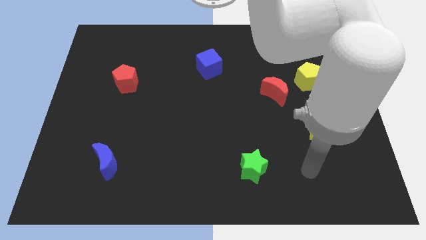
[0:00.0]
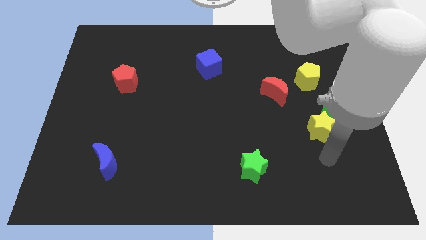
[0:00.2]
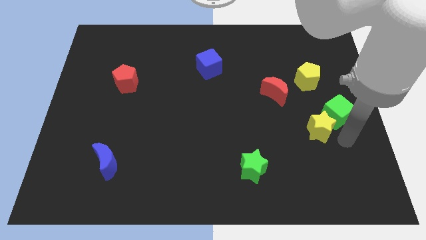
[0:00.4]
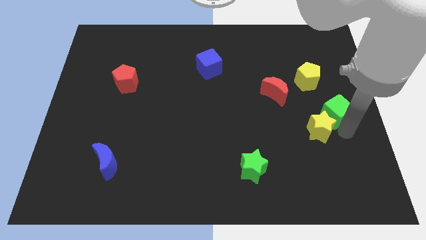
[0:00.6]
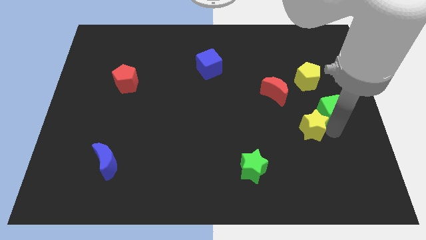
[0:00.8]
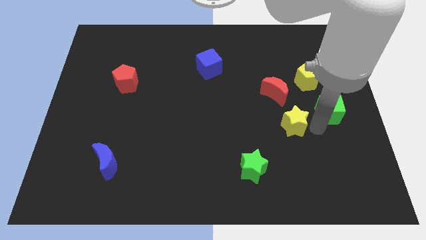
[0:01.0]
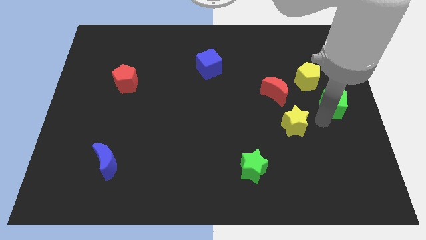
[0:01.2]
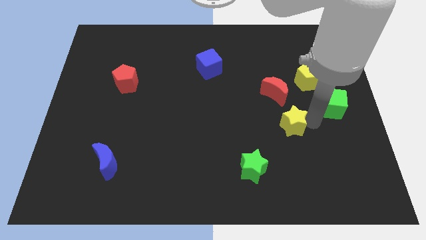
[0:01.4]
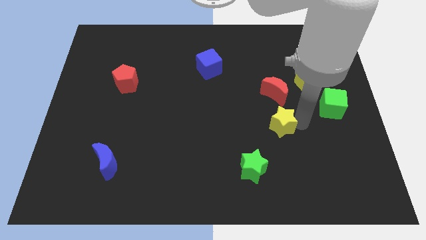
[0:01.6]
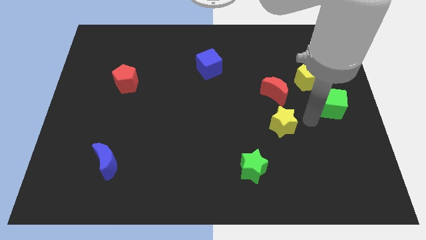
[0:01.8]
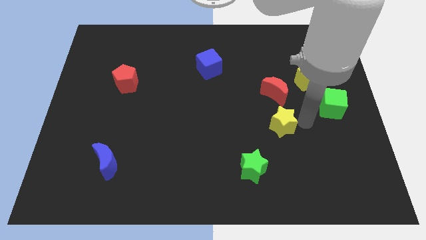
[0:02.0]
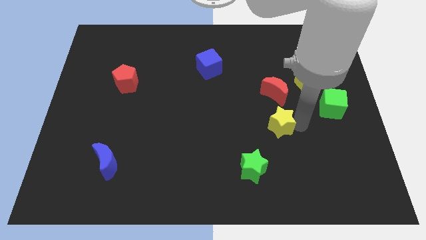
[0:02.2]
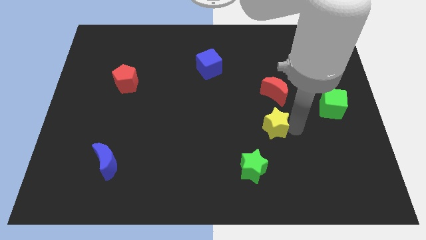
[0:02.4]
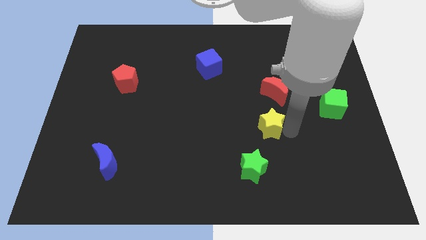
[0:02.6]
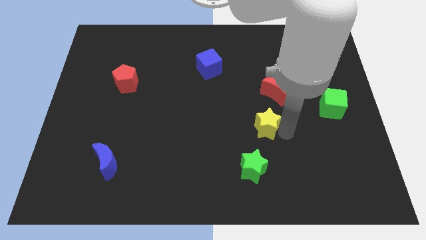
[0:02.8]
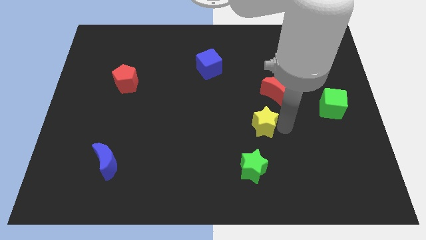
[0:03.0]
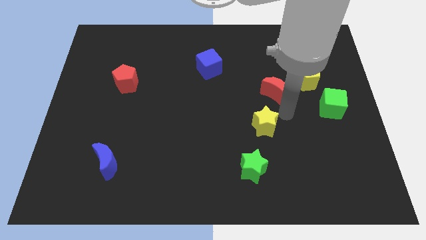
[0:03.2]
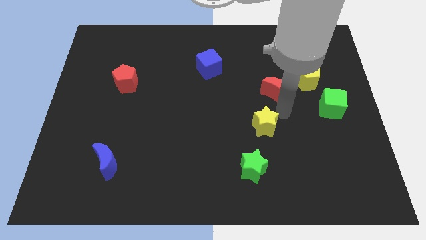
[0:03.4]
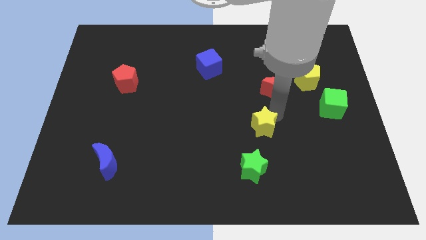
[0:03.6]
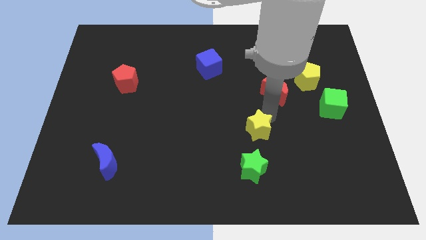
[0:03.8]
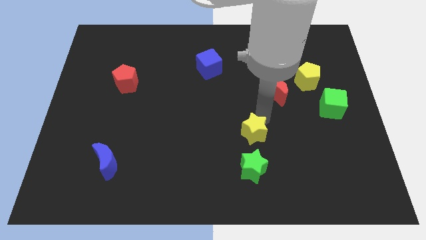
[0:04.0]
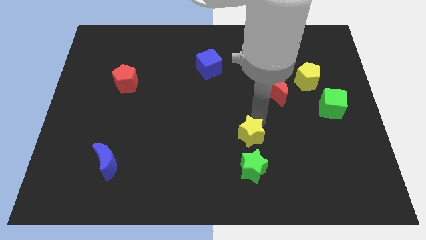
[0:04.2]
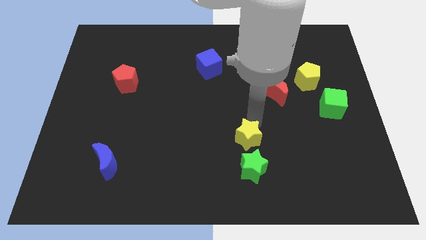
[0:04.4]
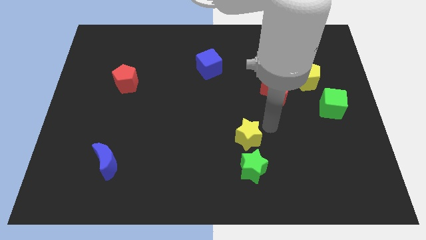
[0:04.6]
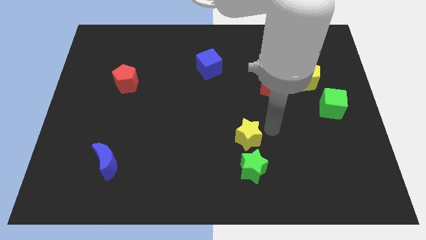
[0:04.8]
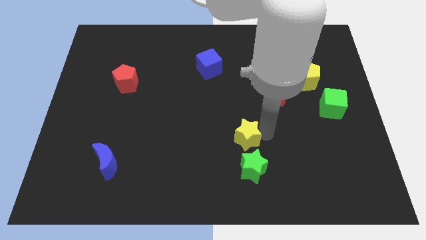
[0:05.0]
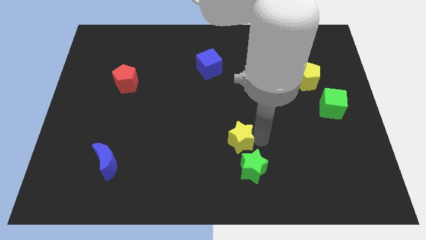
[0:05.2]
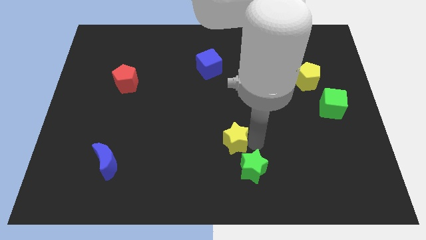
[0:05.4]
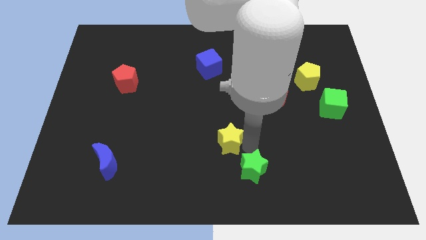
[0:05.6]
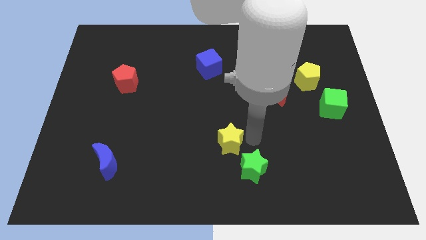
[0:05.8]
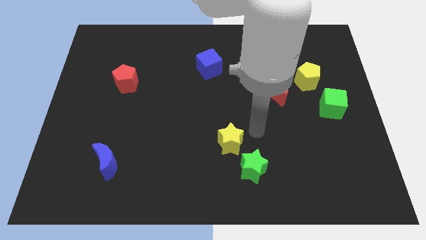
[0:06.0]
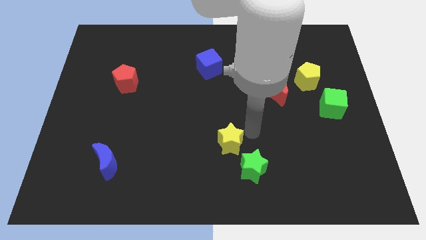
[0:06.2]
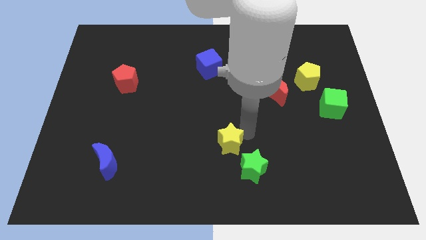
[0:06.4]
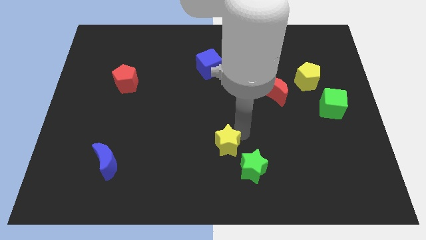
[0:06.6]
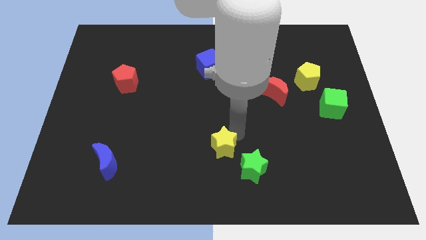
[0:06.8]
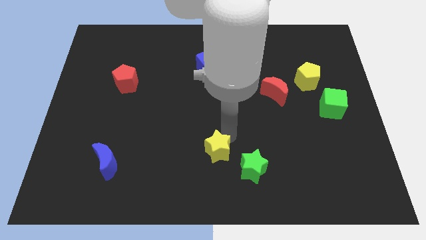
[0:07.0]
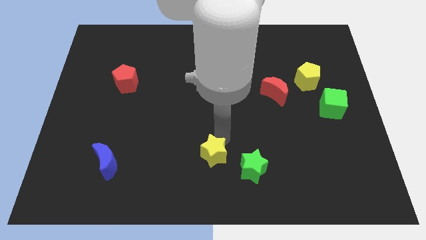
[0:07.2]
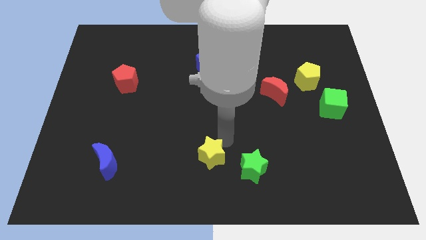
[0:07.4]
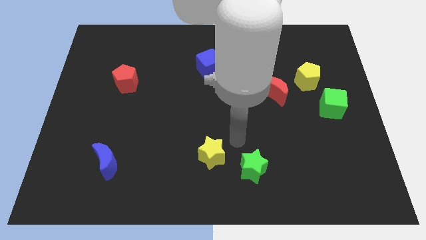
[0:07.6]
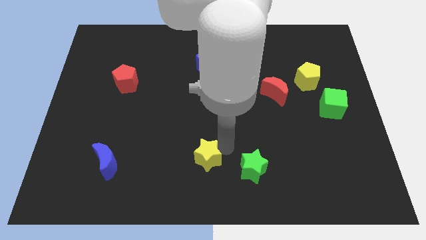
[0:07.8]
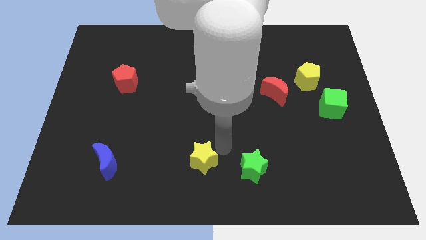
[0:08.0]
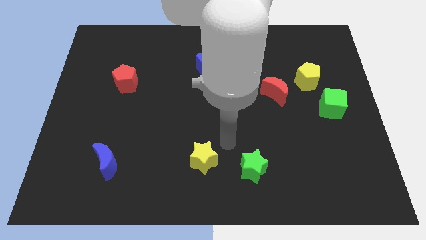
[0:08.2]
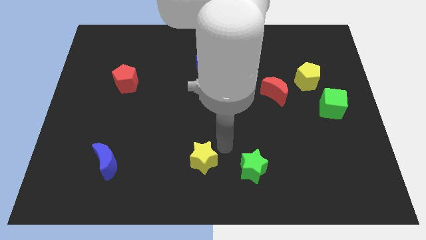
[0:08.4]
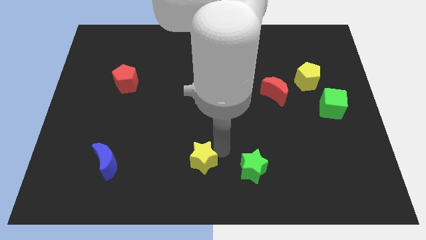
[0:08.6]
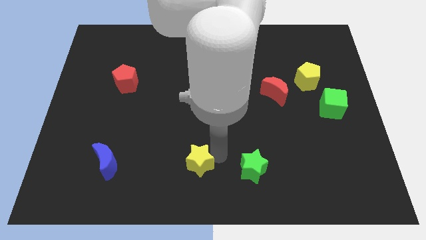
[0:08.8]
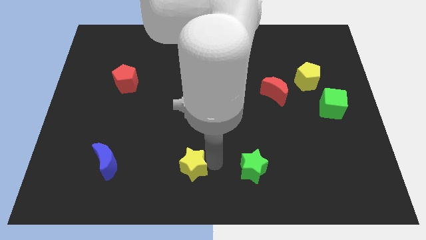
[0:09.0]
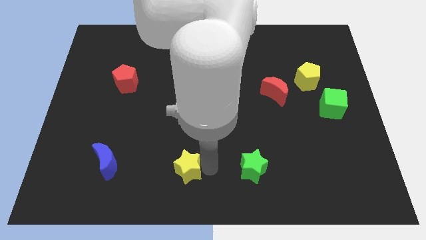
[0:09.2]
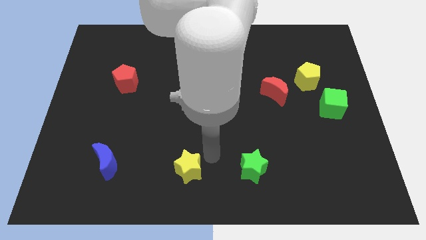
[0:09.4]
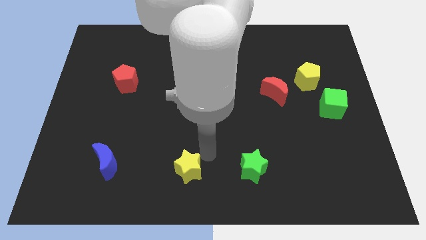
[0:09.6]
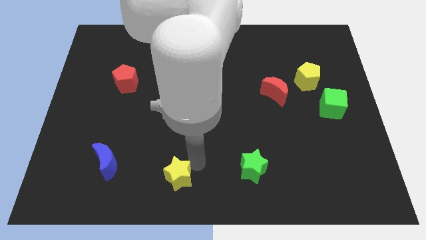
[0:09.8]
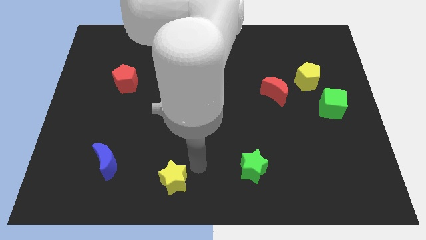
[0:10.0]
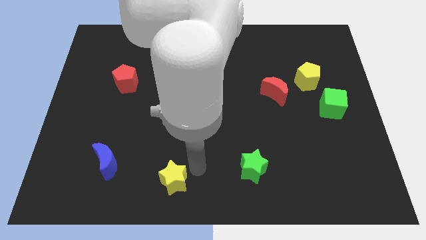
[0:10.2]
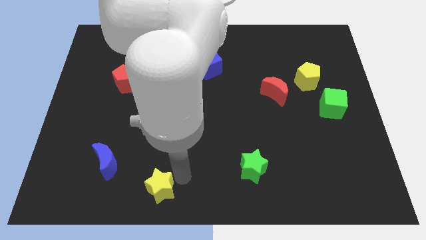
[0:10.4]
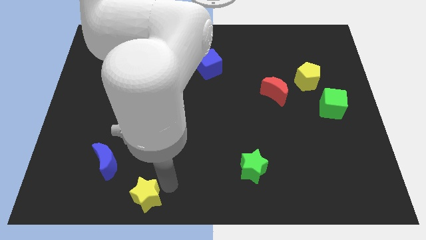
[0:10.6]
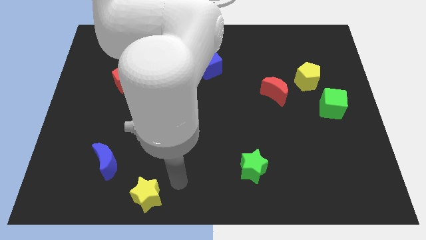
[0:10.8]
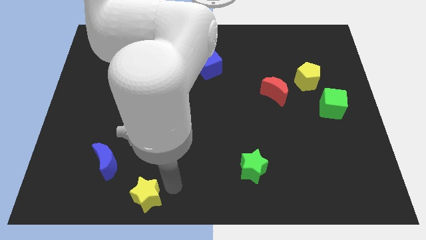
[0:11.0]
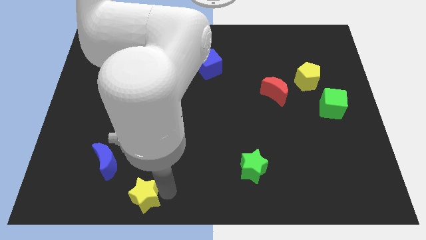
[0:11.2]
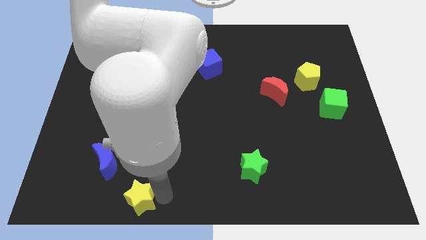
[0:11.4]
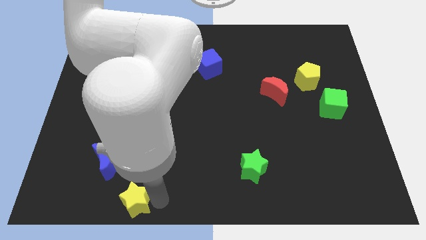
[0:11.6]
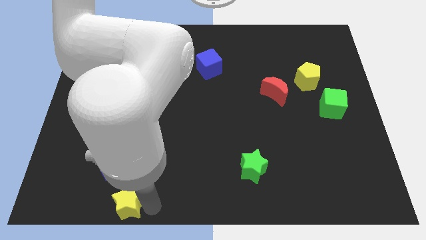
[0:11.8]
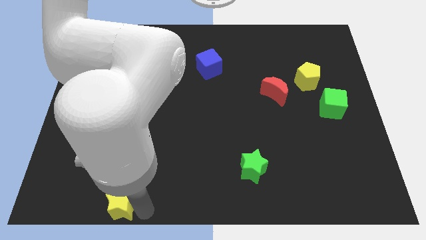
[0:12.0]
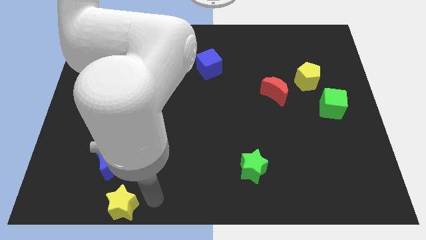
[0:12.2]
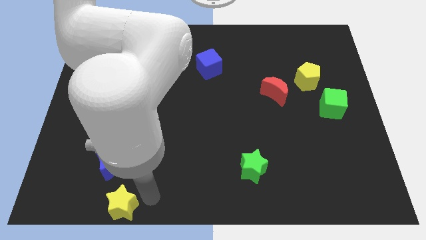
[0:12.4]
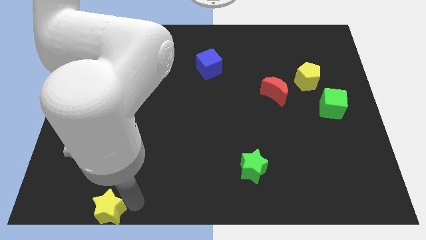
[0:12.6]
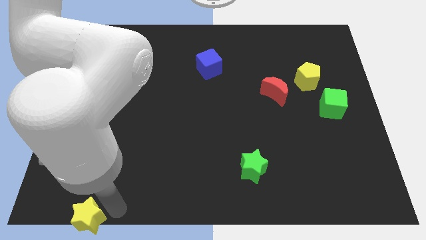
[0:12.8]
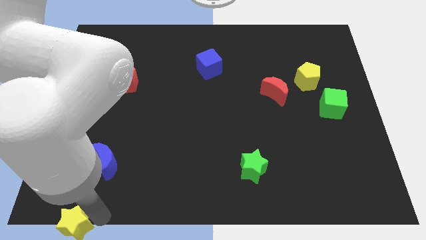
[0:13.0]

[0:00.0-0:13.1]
put the yellow star to the bottom left

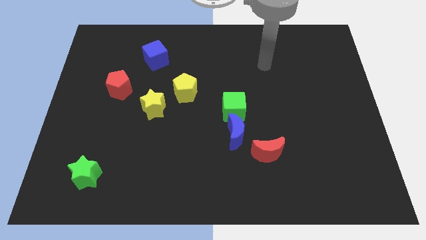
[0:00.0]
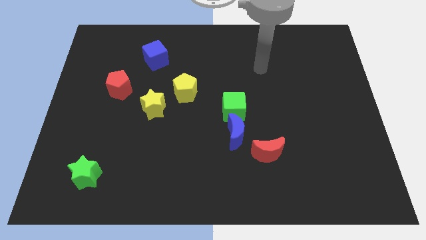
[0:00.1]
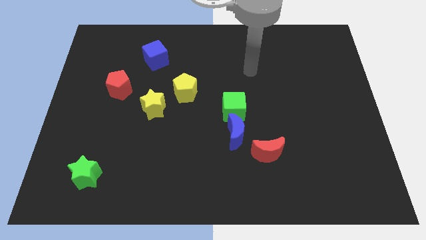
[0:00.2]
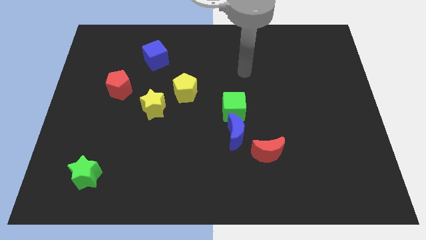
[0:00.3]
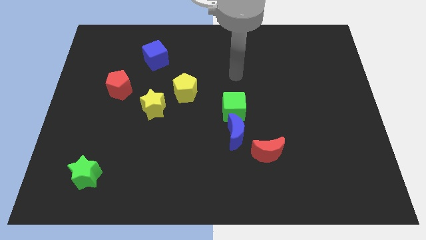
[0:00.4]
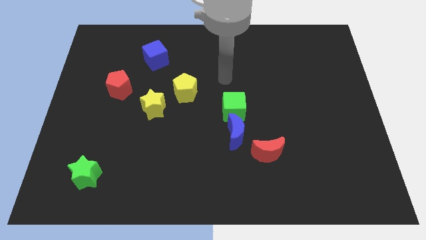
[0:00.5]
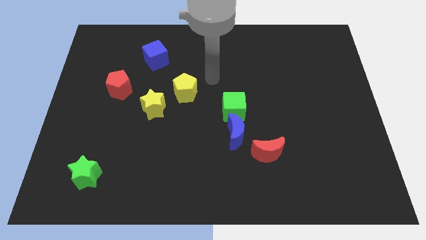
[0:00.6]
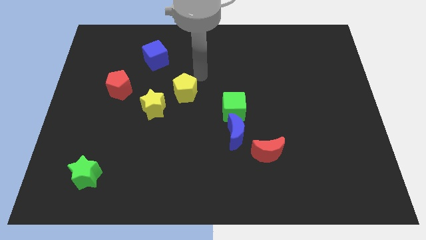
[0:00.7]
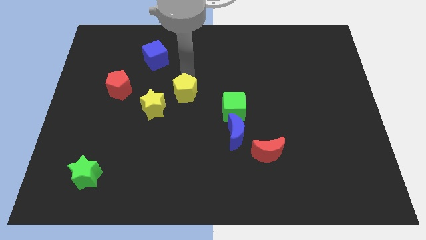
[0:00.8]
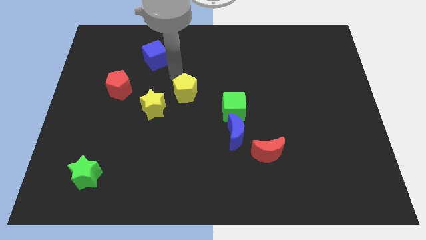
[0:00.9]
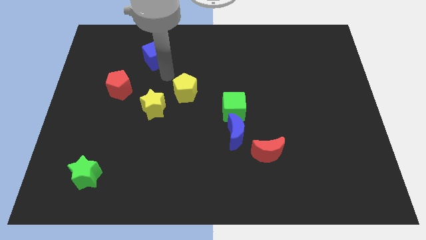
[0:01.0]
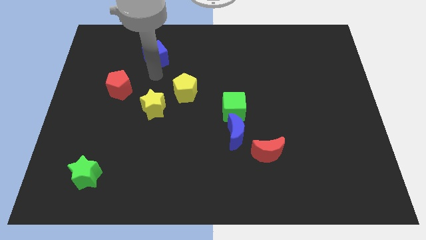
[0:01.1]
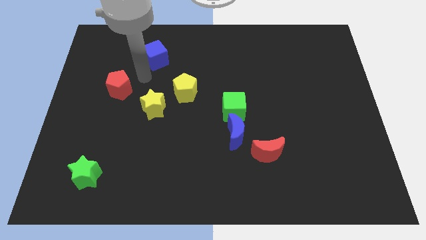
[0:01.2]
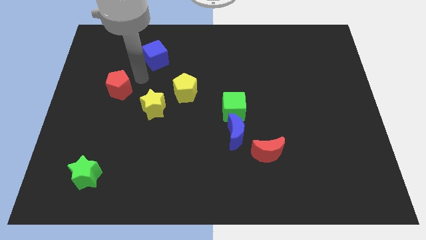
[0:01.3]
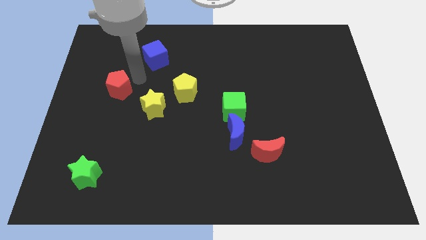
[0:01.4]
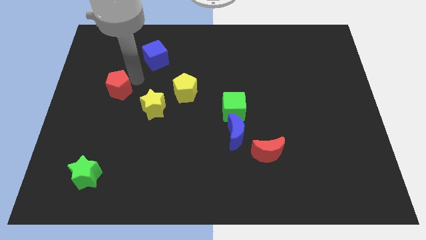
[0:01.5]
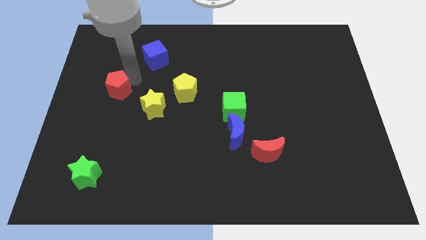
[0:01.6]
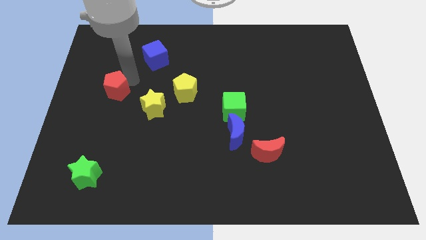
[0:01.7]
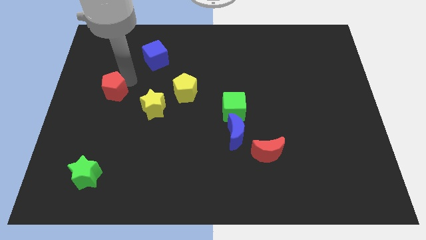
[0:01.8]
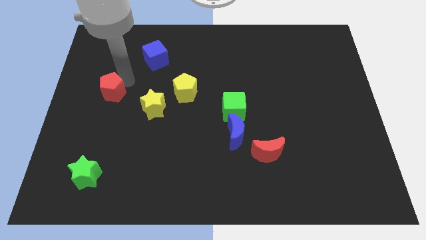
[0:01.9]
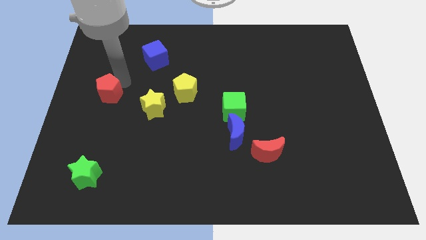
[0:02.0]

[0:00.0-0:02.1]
slide the red pentagon to the center left
